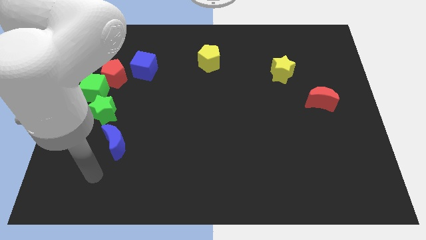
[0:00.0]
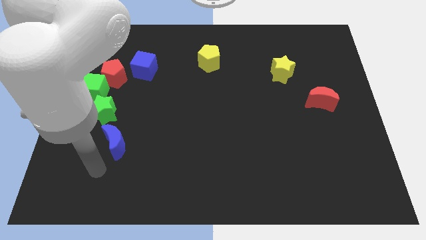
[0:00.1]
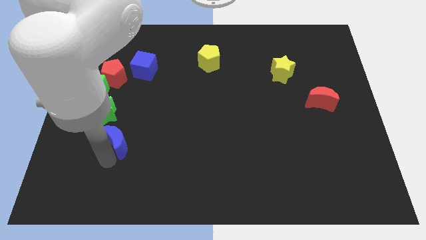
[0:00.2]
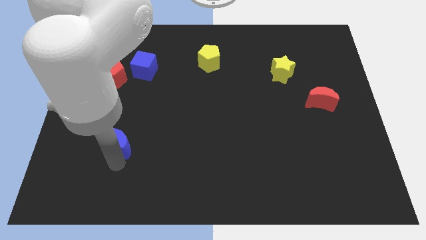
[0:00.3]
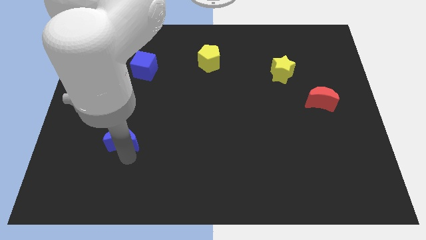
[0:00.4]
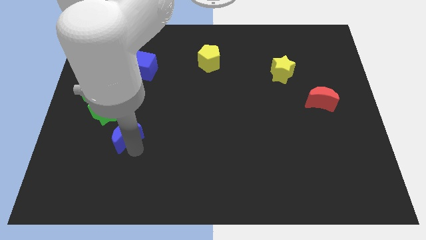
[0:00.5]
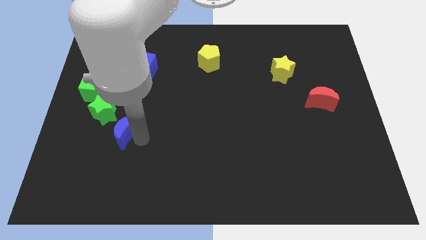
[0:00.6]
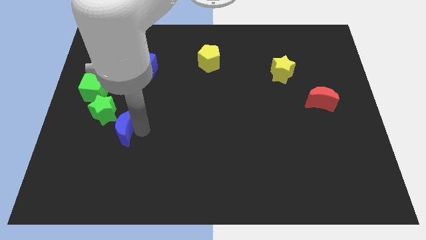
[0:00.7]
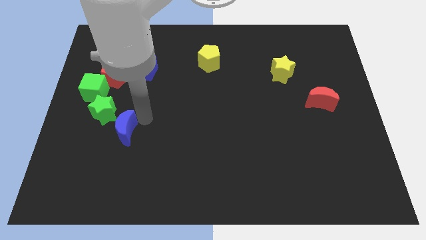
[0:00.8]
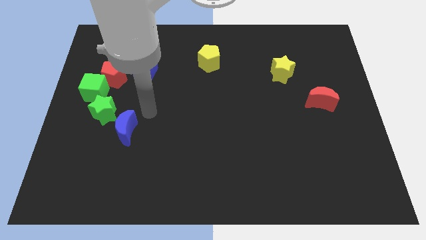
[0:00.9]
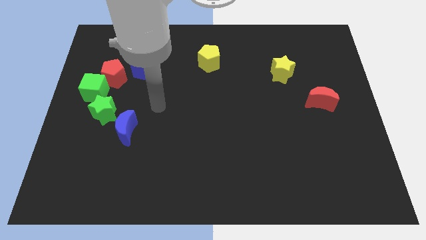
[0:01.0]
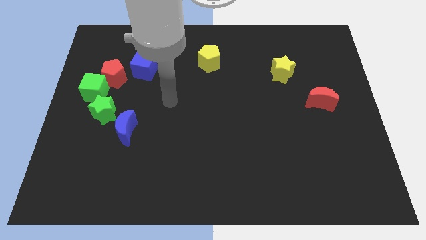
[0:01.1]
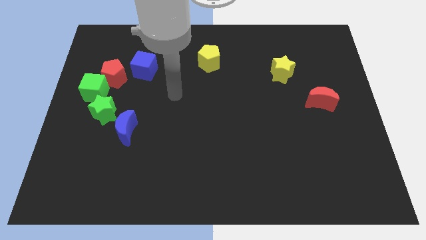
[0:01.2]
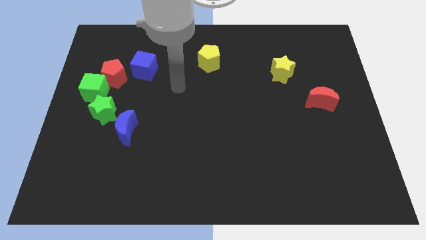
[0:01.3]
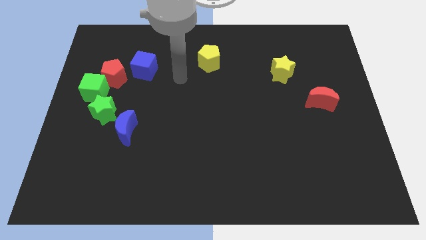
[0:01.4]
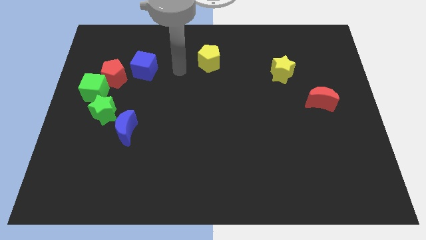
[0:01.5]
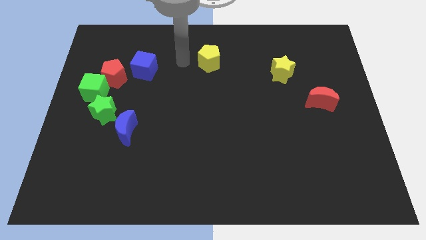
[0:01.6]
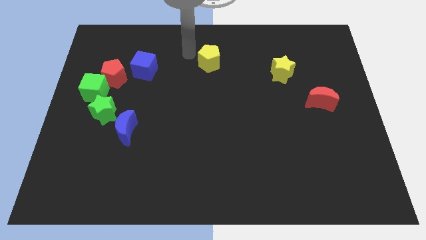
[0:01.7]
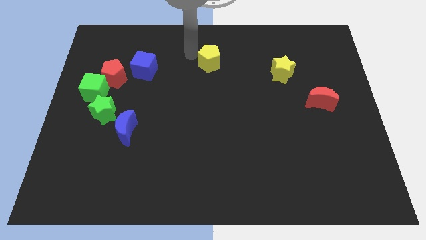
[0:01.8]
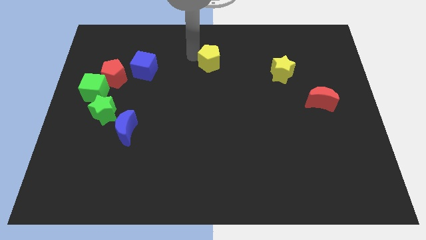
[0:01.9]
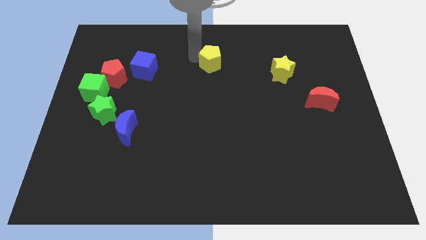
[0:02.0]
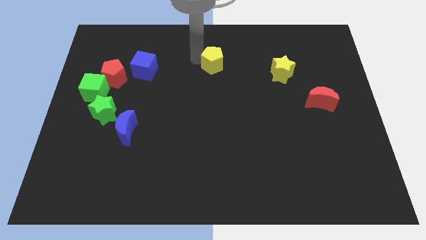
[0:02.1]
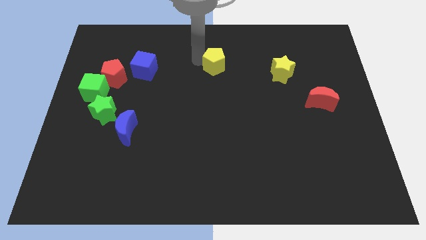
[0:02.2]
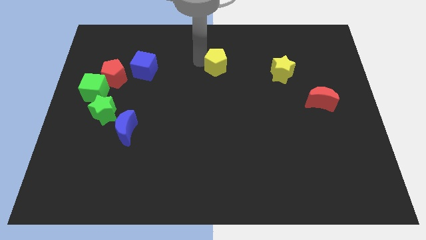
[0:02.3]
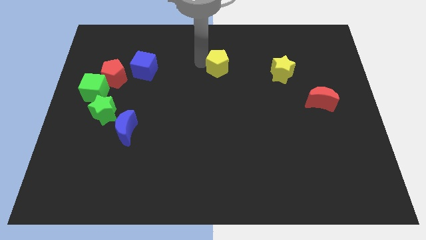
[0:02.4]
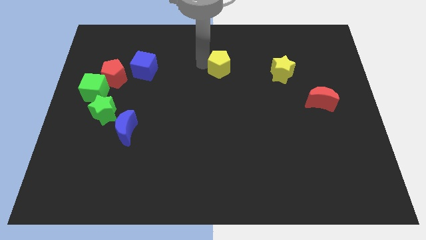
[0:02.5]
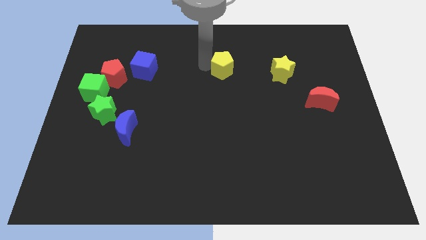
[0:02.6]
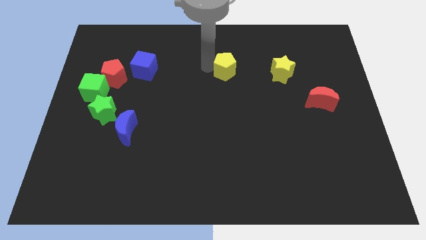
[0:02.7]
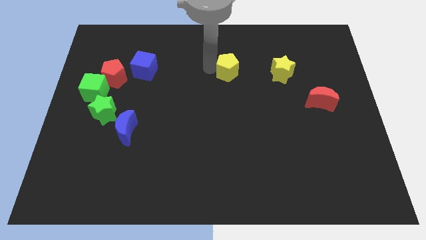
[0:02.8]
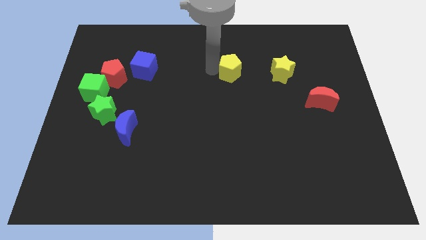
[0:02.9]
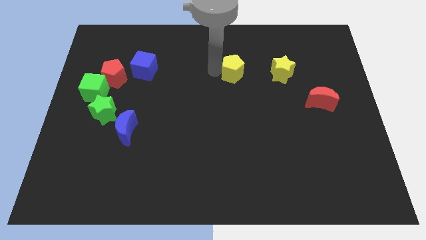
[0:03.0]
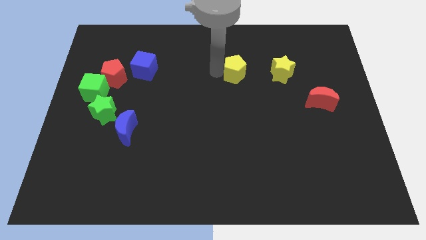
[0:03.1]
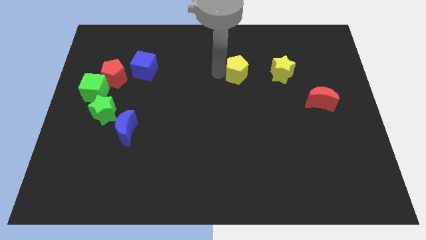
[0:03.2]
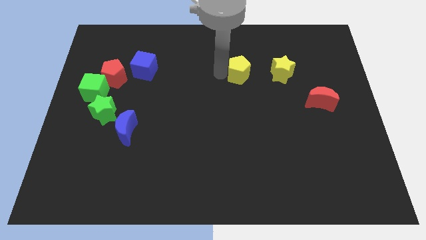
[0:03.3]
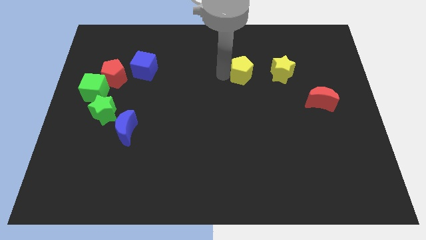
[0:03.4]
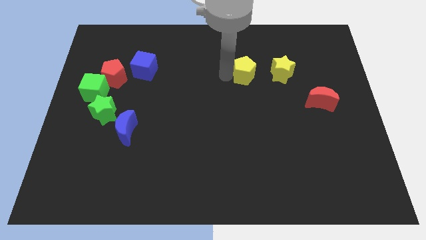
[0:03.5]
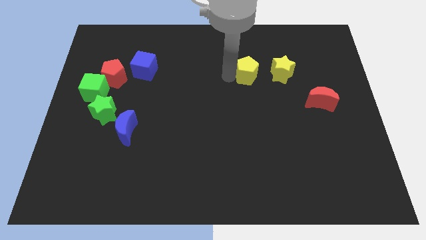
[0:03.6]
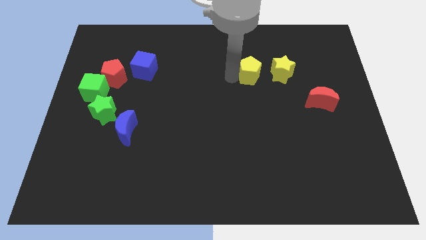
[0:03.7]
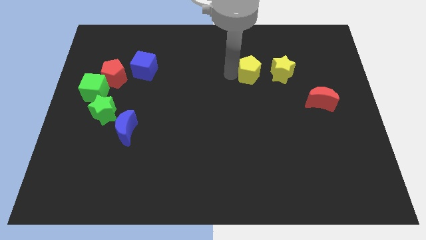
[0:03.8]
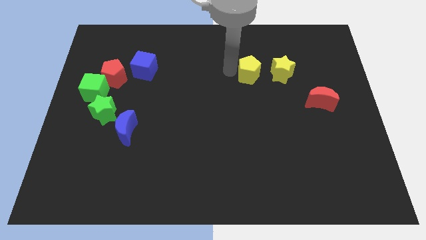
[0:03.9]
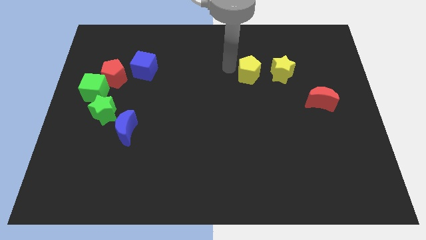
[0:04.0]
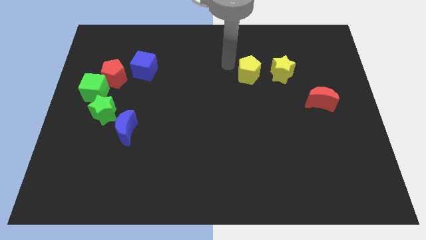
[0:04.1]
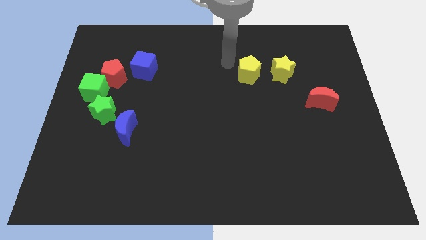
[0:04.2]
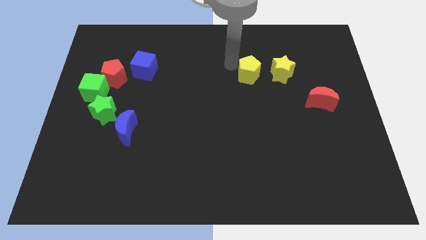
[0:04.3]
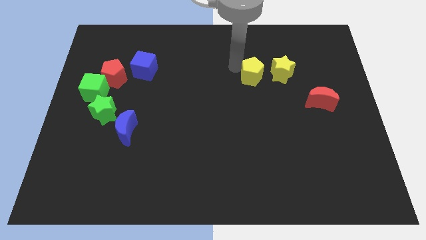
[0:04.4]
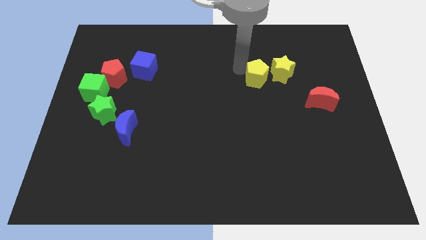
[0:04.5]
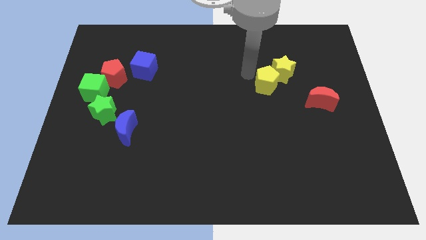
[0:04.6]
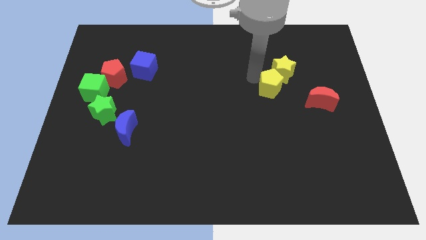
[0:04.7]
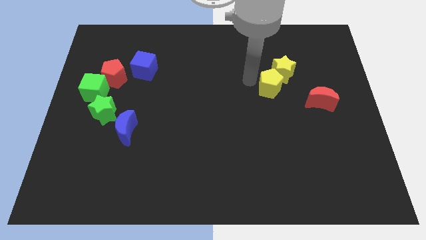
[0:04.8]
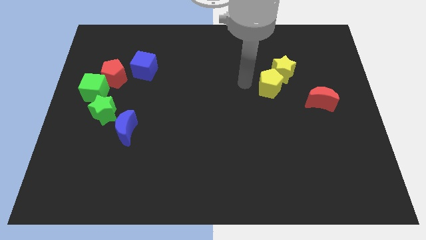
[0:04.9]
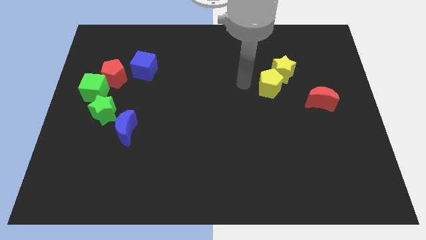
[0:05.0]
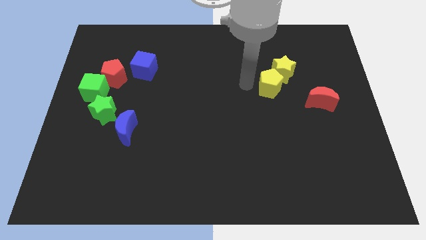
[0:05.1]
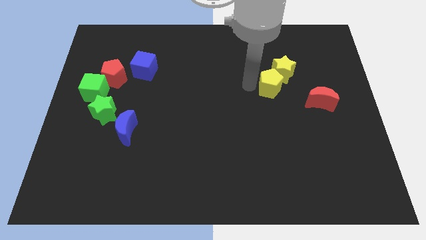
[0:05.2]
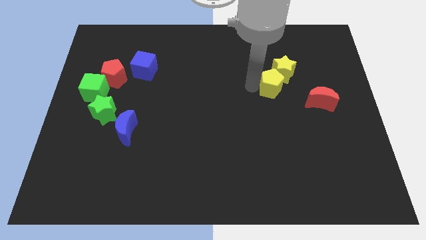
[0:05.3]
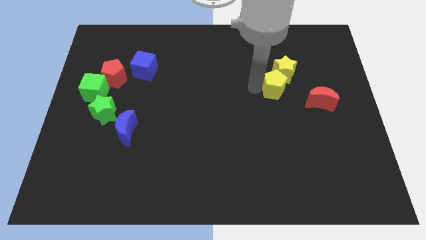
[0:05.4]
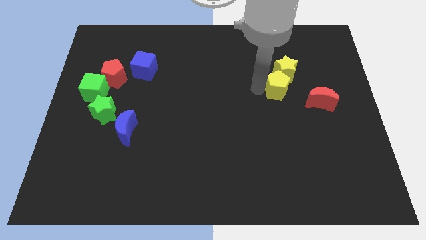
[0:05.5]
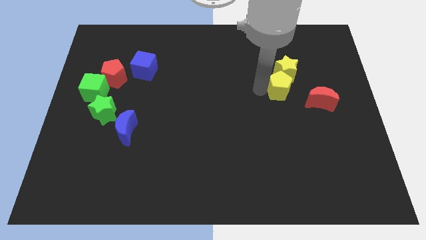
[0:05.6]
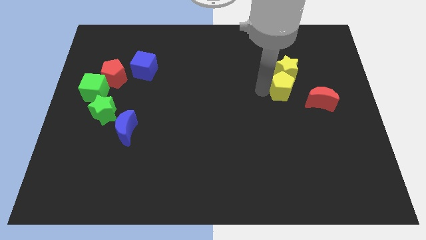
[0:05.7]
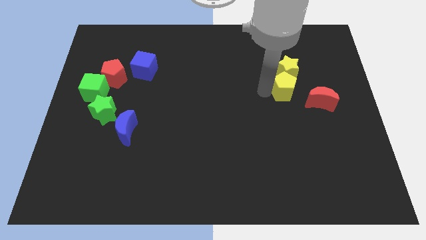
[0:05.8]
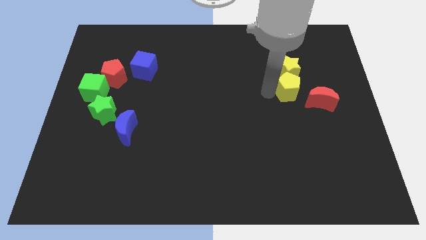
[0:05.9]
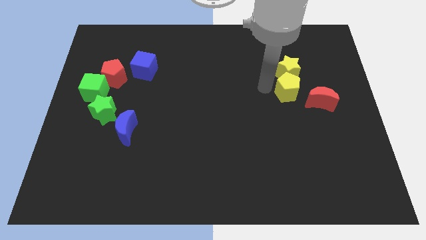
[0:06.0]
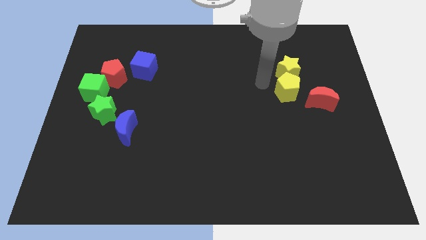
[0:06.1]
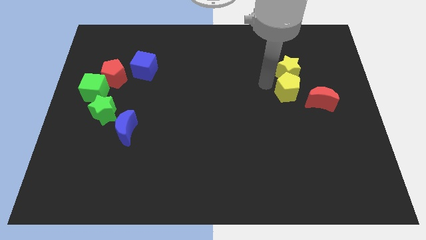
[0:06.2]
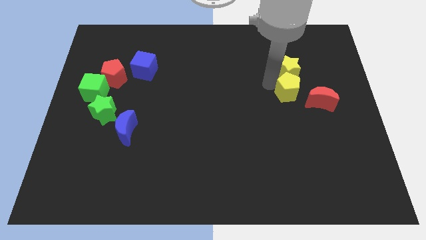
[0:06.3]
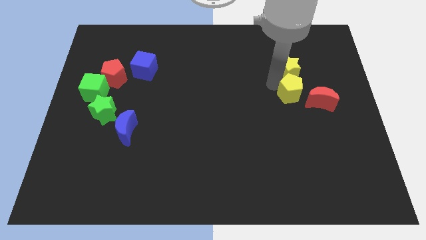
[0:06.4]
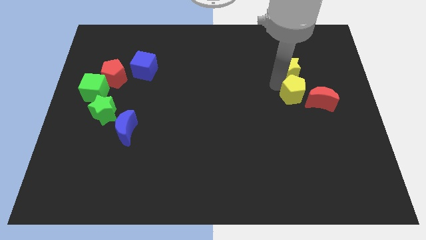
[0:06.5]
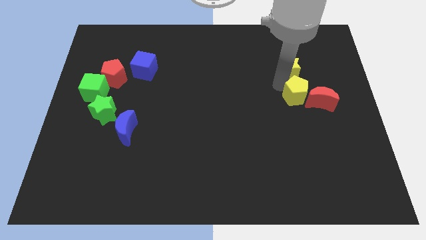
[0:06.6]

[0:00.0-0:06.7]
move the yellow pentagon towards the red moon

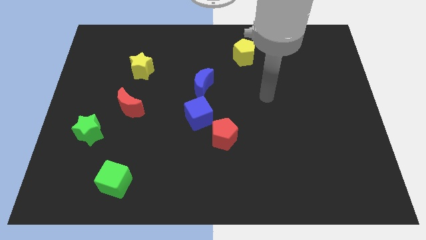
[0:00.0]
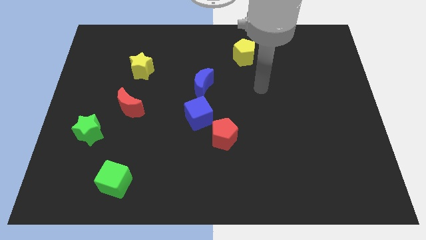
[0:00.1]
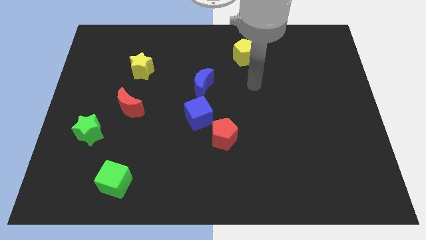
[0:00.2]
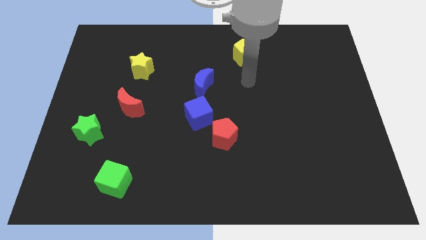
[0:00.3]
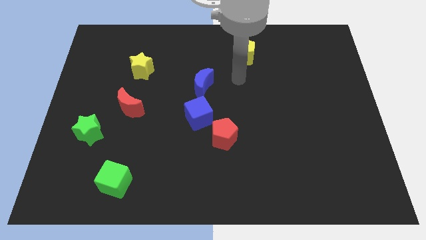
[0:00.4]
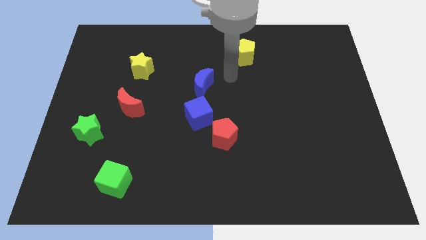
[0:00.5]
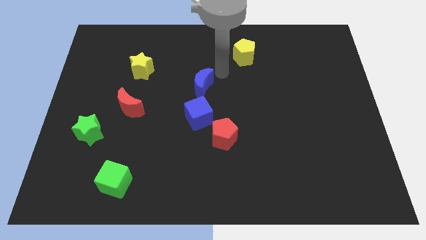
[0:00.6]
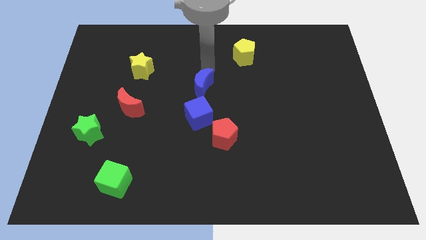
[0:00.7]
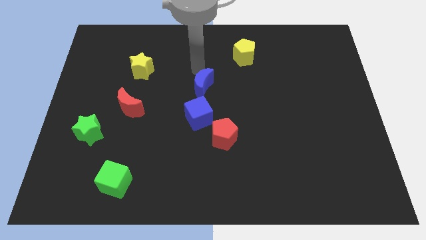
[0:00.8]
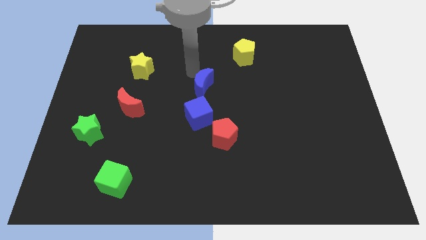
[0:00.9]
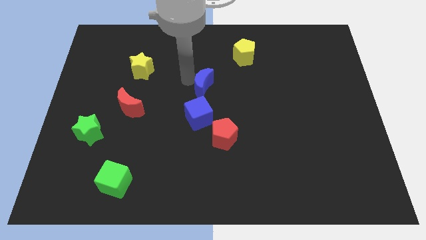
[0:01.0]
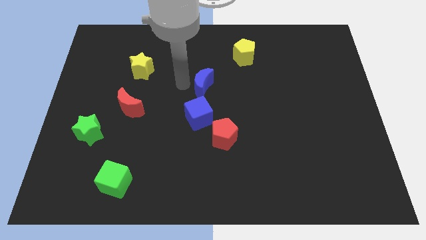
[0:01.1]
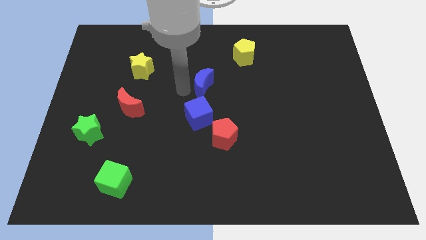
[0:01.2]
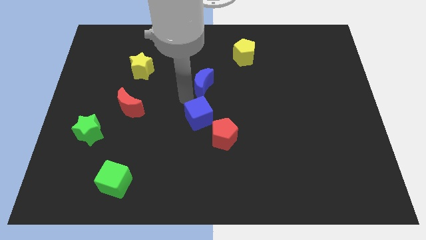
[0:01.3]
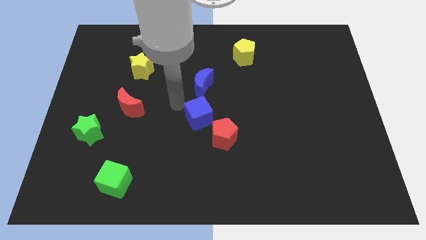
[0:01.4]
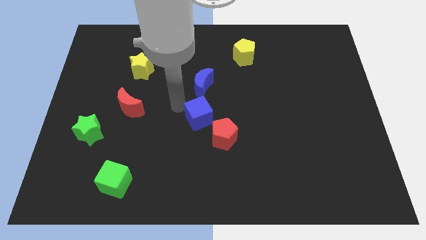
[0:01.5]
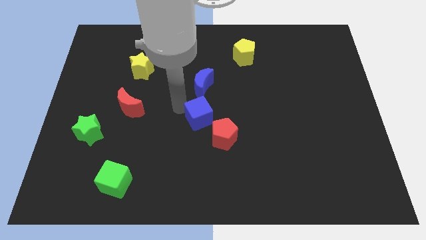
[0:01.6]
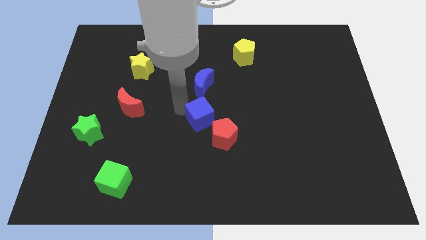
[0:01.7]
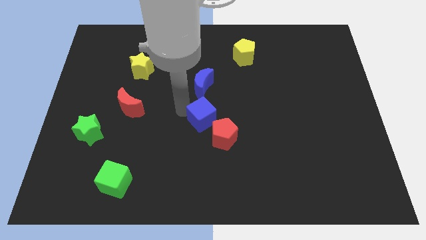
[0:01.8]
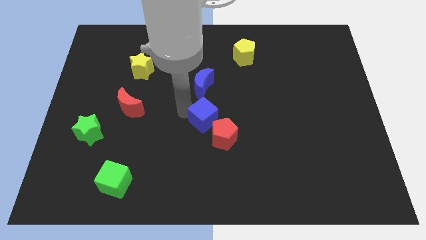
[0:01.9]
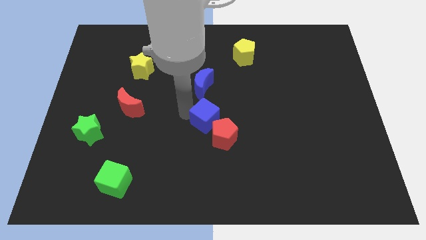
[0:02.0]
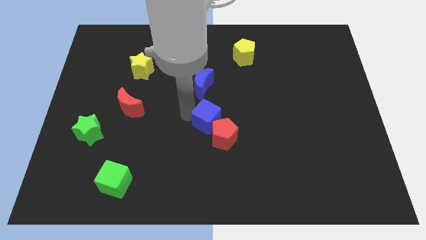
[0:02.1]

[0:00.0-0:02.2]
move the blue cube next to the red pentagon
